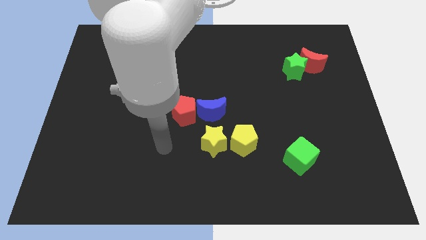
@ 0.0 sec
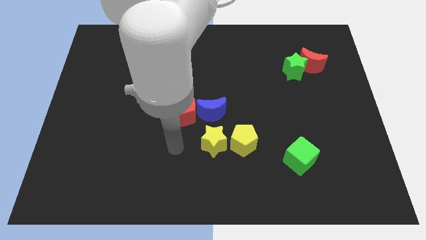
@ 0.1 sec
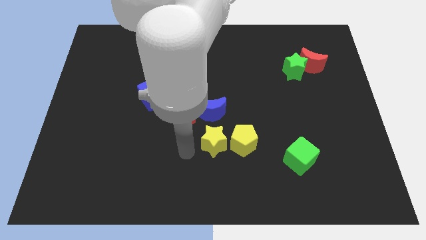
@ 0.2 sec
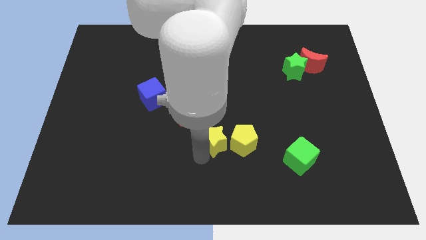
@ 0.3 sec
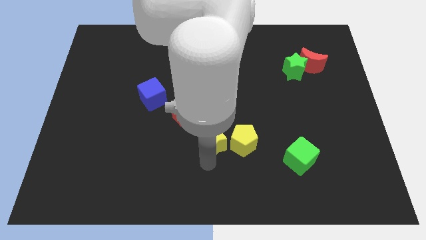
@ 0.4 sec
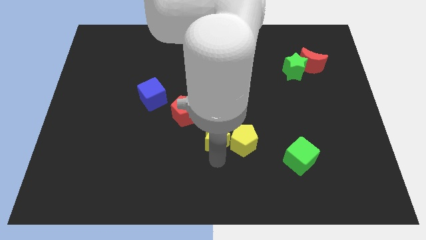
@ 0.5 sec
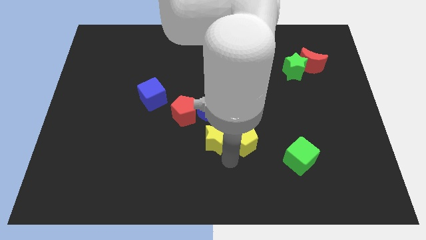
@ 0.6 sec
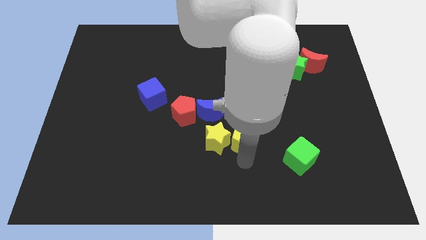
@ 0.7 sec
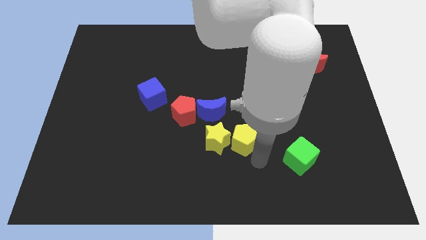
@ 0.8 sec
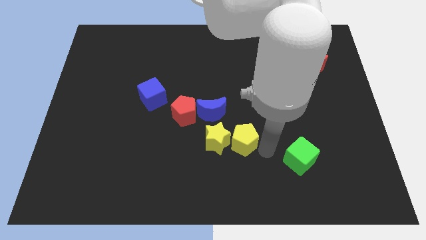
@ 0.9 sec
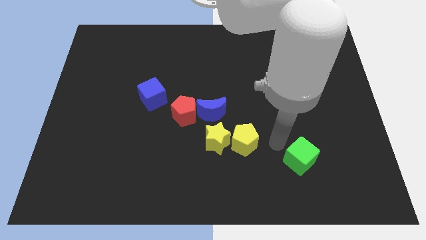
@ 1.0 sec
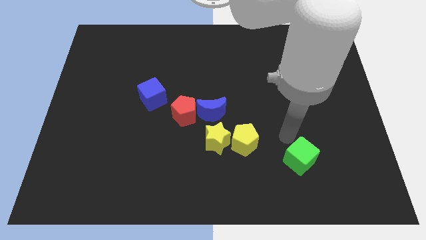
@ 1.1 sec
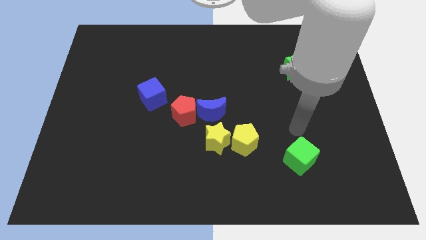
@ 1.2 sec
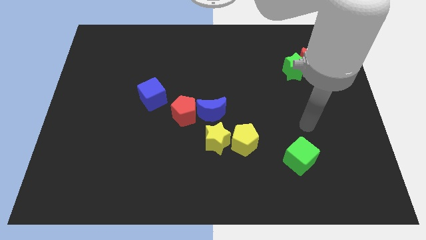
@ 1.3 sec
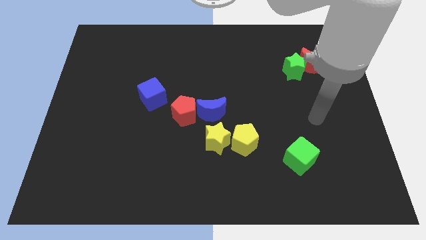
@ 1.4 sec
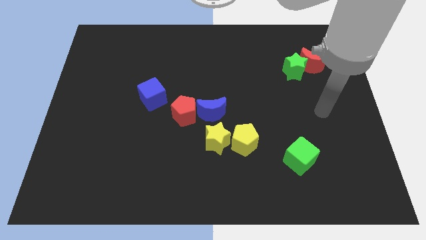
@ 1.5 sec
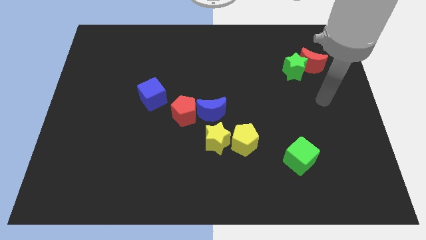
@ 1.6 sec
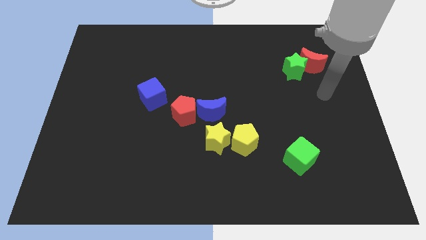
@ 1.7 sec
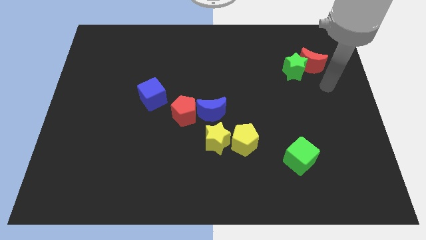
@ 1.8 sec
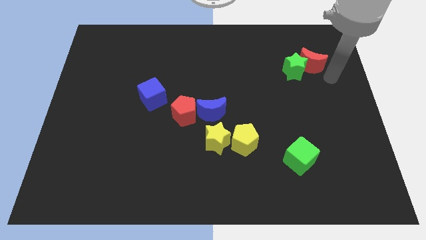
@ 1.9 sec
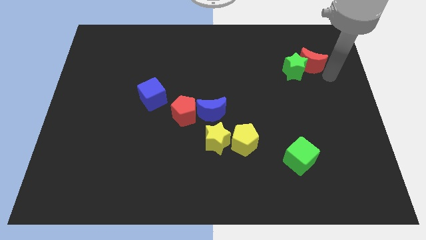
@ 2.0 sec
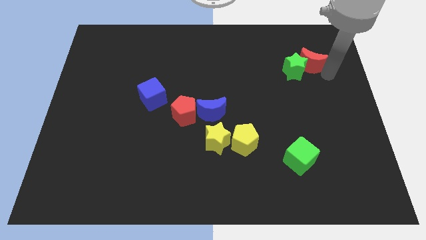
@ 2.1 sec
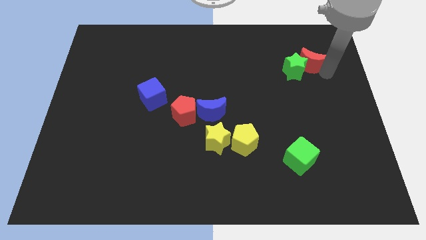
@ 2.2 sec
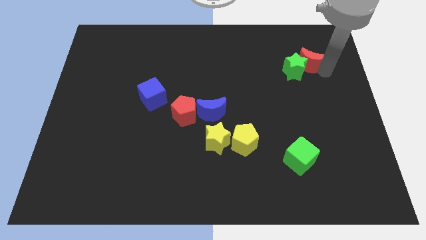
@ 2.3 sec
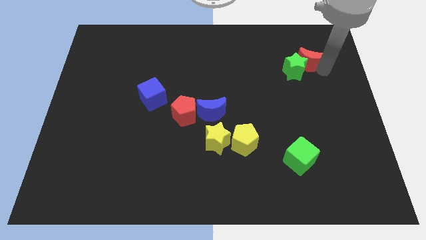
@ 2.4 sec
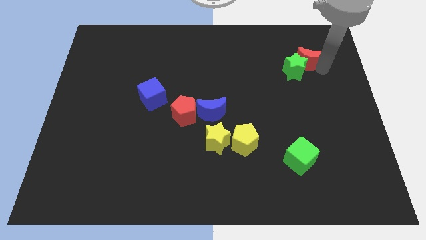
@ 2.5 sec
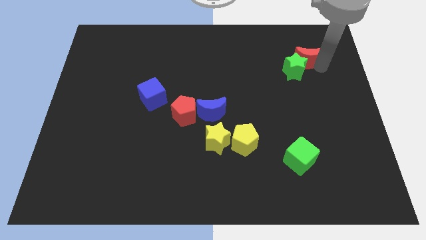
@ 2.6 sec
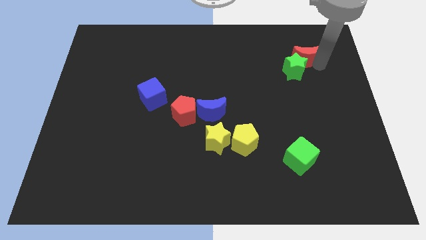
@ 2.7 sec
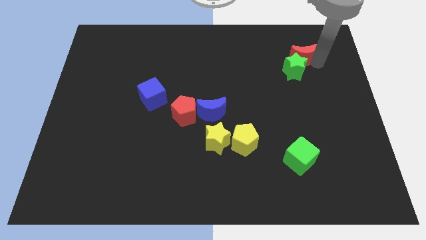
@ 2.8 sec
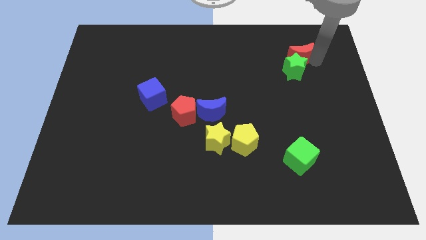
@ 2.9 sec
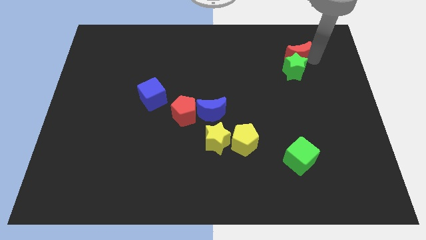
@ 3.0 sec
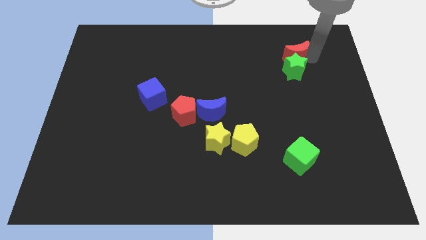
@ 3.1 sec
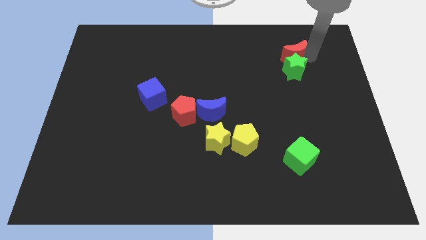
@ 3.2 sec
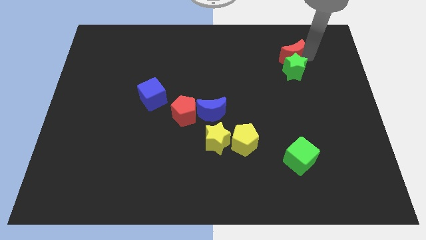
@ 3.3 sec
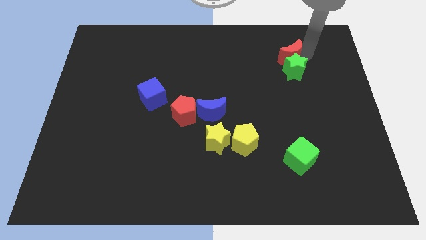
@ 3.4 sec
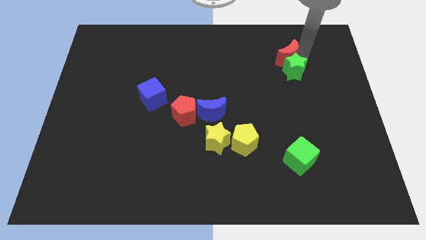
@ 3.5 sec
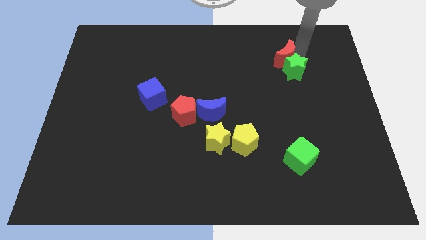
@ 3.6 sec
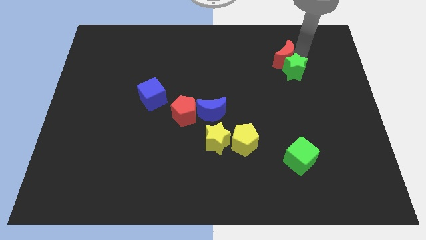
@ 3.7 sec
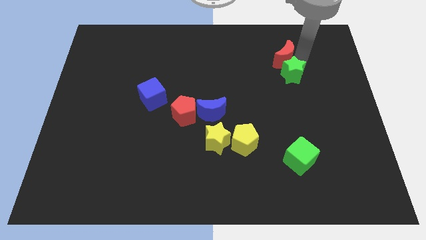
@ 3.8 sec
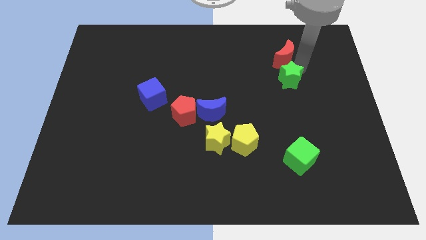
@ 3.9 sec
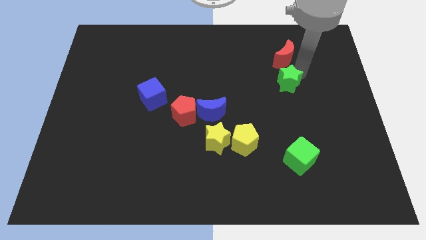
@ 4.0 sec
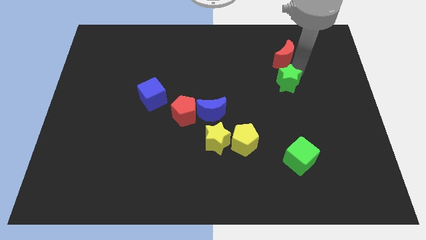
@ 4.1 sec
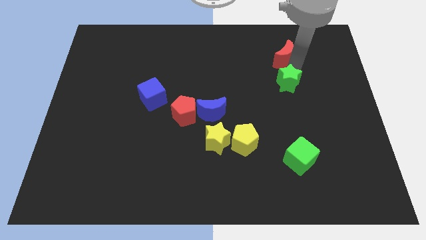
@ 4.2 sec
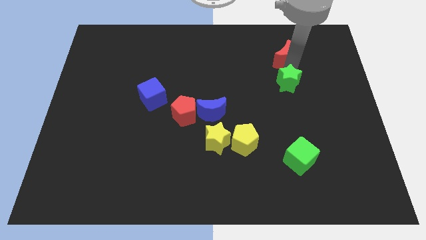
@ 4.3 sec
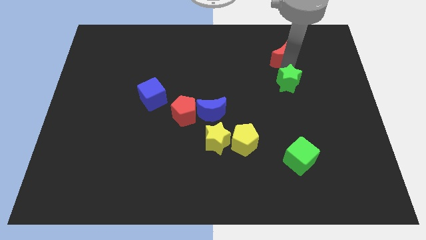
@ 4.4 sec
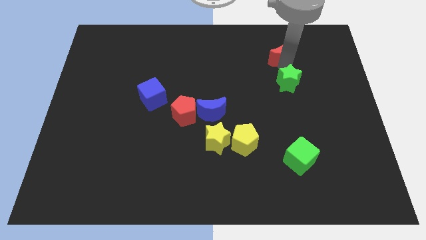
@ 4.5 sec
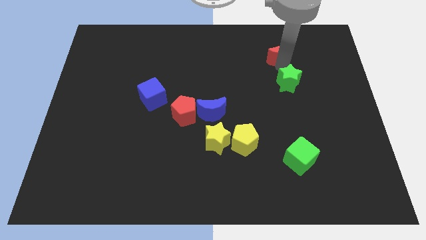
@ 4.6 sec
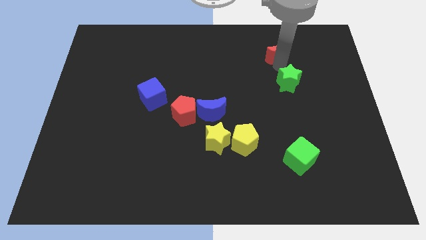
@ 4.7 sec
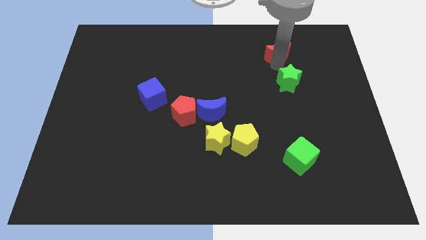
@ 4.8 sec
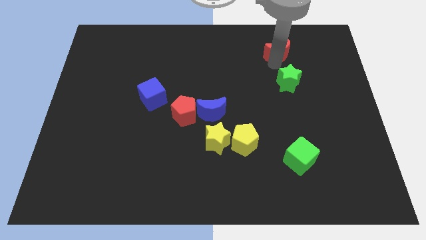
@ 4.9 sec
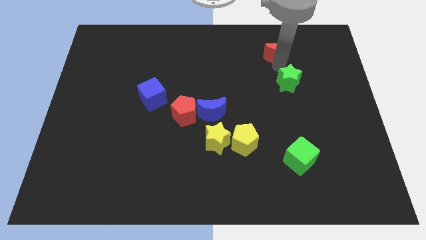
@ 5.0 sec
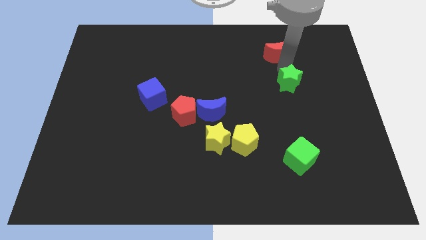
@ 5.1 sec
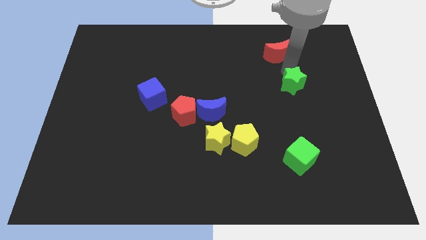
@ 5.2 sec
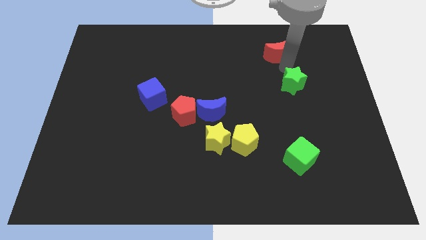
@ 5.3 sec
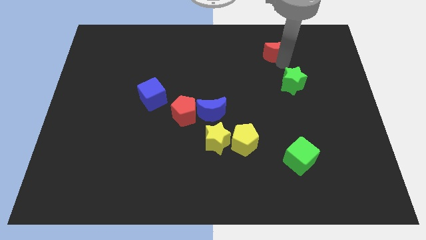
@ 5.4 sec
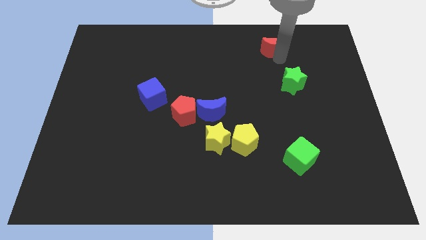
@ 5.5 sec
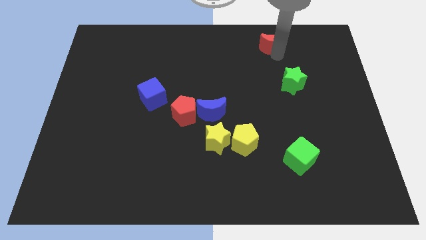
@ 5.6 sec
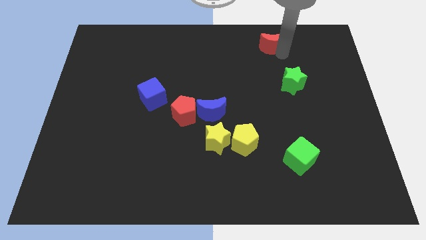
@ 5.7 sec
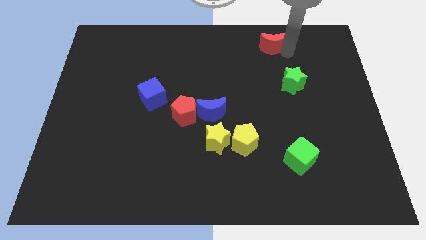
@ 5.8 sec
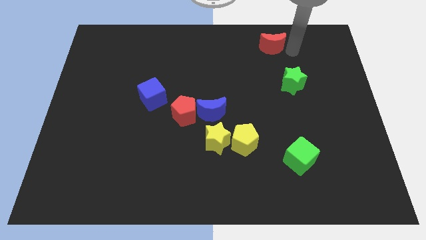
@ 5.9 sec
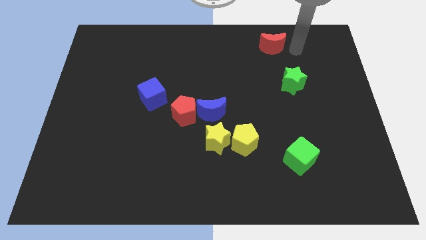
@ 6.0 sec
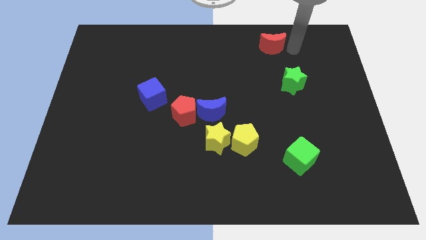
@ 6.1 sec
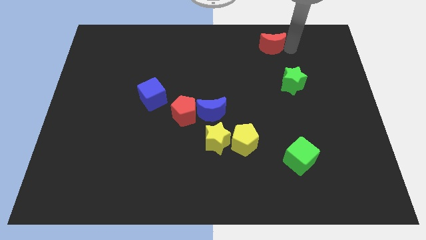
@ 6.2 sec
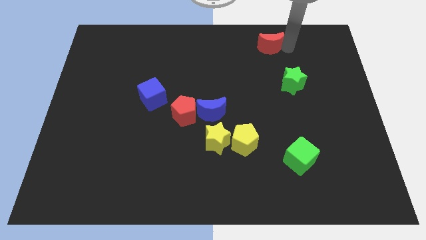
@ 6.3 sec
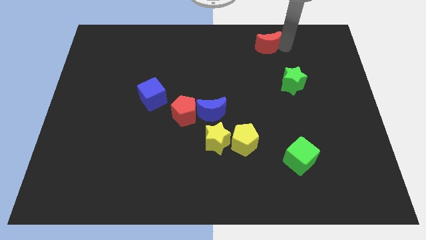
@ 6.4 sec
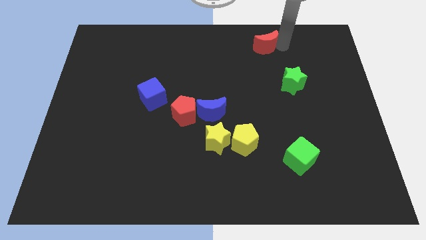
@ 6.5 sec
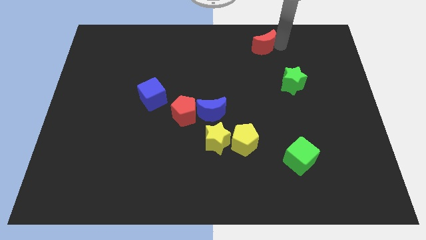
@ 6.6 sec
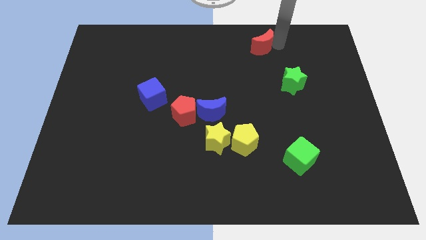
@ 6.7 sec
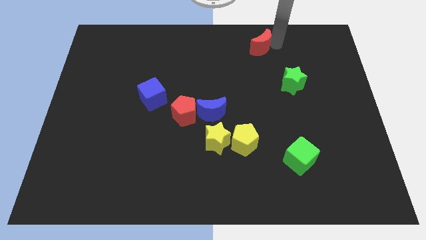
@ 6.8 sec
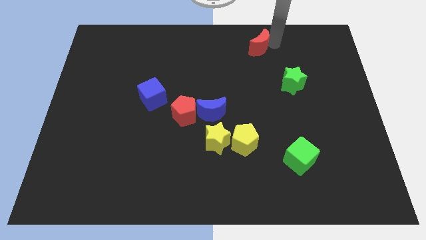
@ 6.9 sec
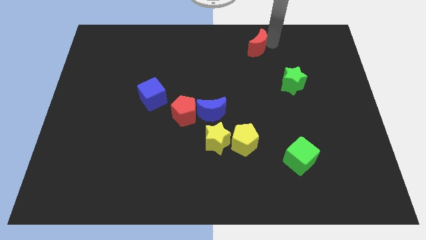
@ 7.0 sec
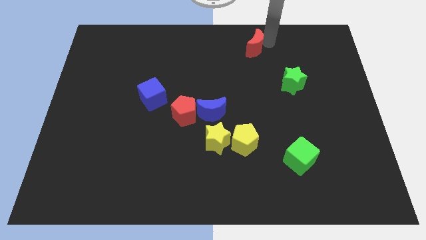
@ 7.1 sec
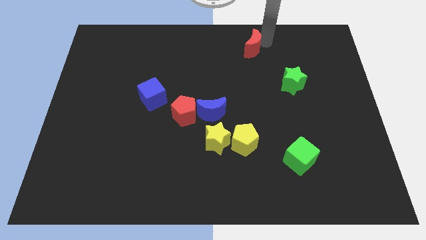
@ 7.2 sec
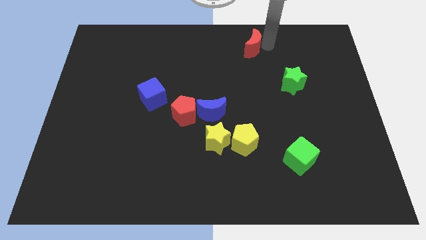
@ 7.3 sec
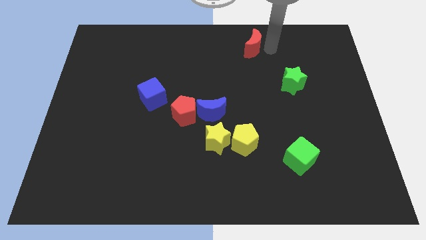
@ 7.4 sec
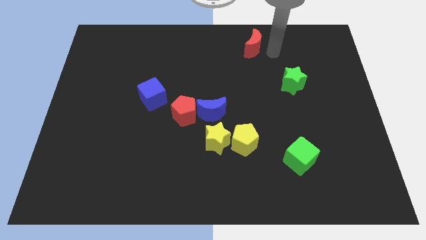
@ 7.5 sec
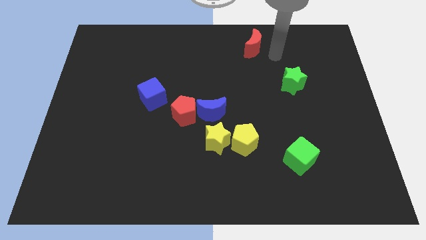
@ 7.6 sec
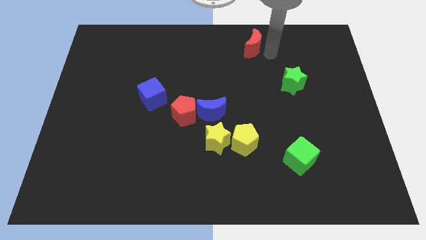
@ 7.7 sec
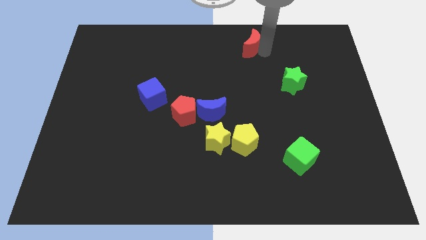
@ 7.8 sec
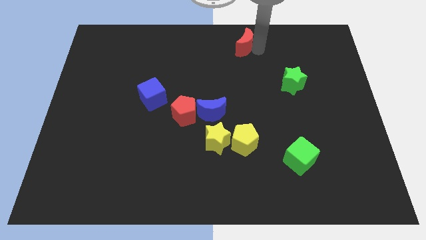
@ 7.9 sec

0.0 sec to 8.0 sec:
slide the red moon to the top
